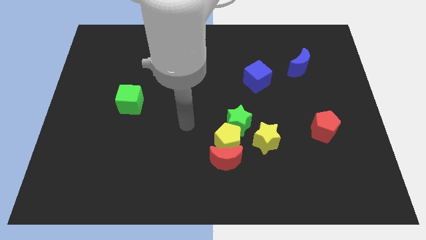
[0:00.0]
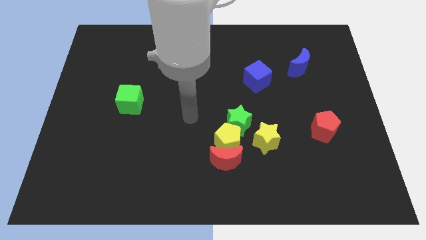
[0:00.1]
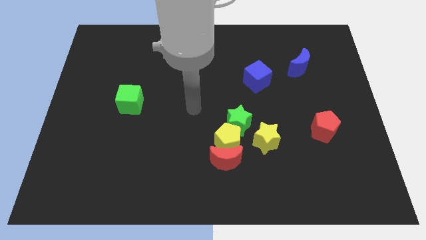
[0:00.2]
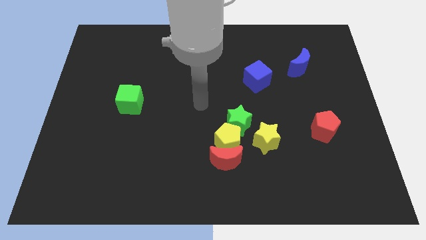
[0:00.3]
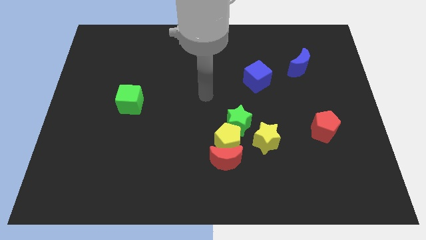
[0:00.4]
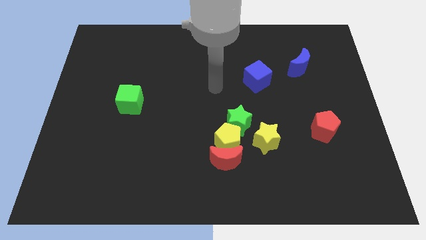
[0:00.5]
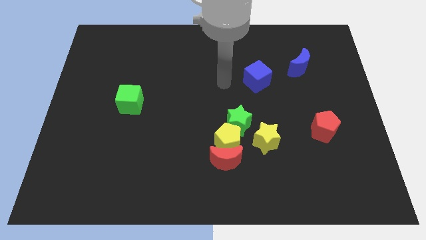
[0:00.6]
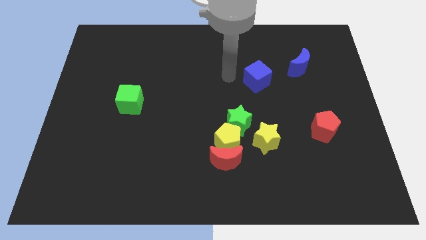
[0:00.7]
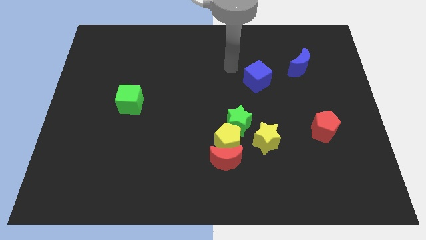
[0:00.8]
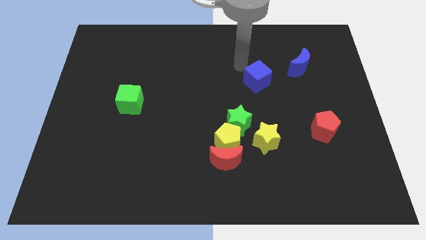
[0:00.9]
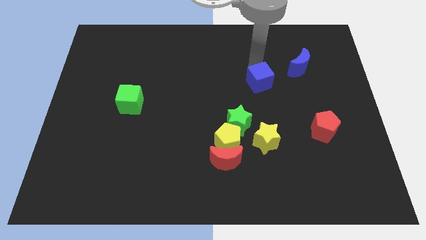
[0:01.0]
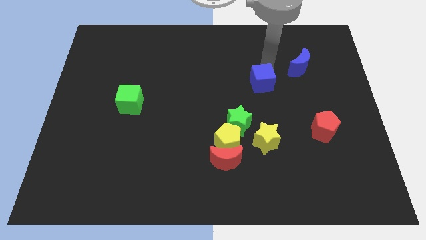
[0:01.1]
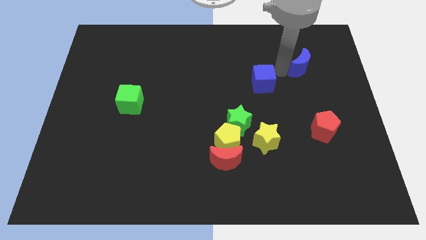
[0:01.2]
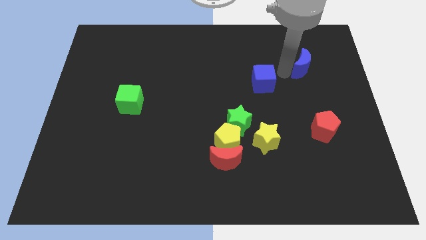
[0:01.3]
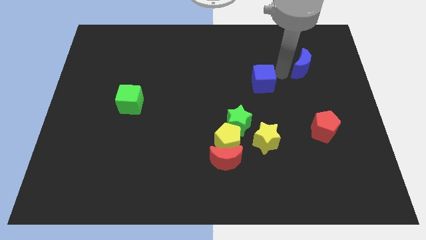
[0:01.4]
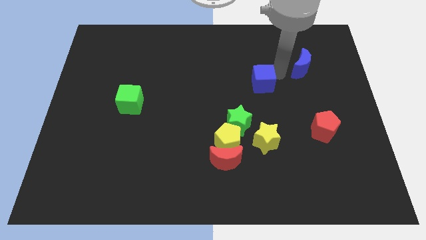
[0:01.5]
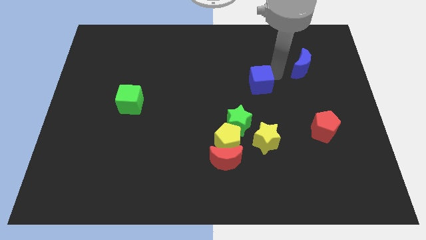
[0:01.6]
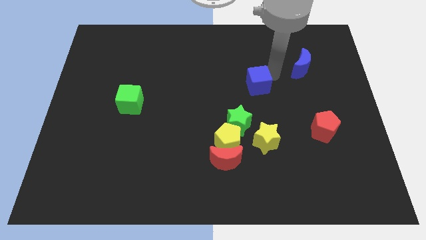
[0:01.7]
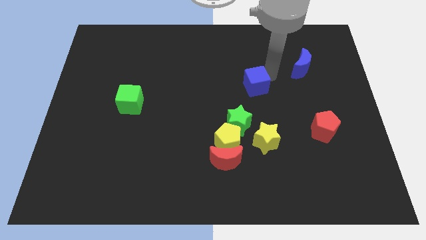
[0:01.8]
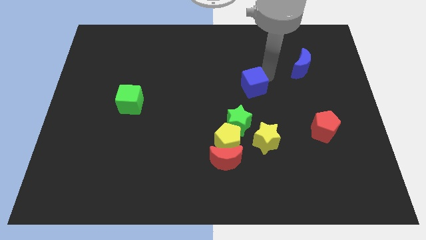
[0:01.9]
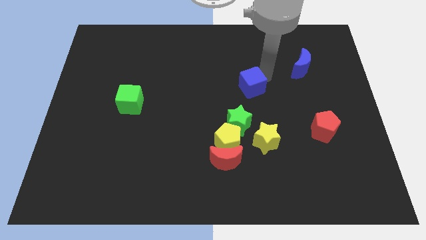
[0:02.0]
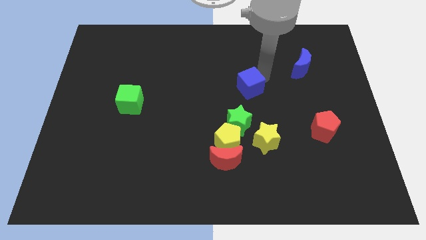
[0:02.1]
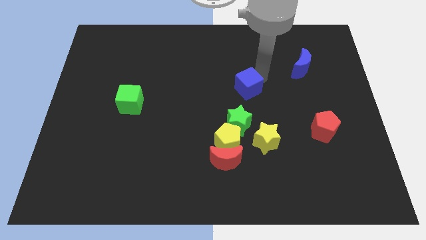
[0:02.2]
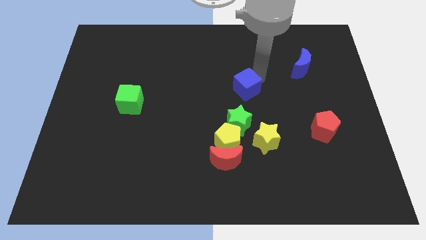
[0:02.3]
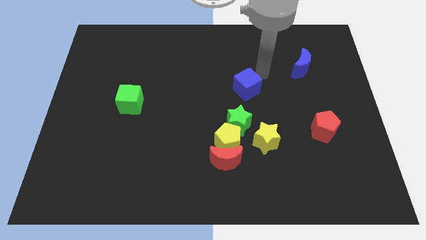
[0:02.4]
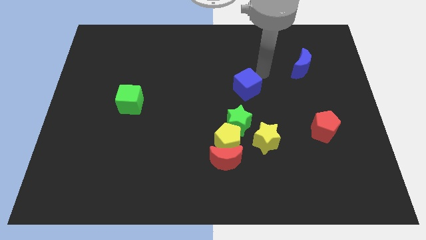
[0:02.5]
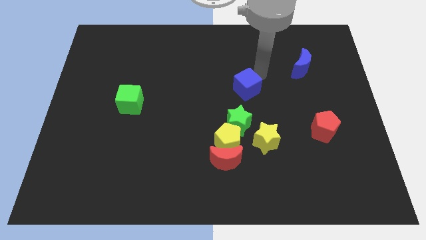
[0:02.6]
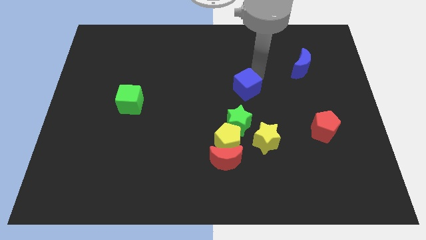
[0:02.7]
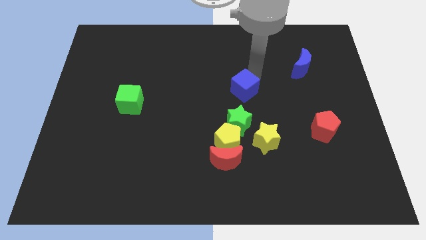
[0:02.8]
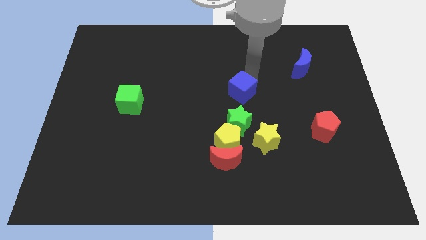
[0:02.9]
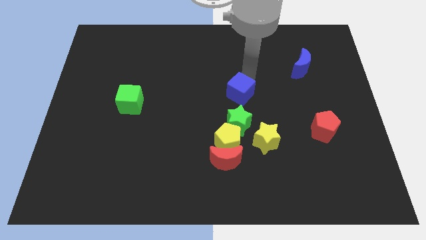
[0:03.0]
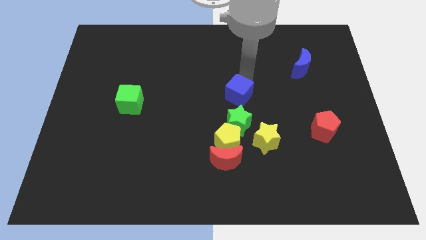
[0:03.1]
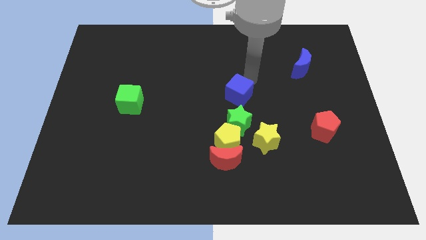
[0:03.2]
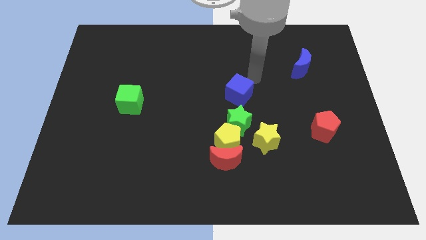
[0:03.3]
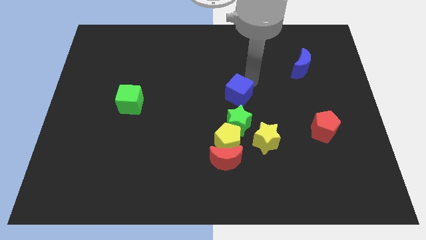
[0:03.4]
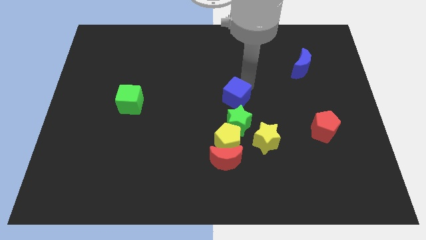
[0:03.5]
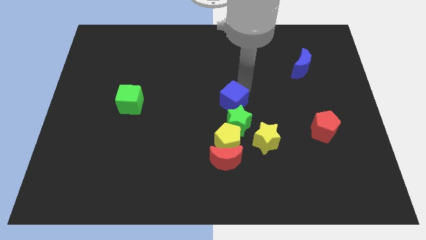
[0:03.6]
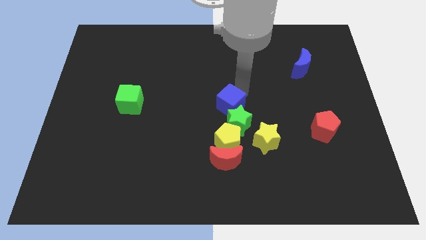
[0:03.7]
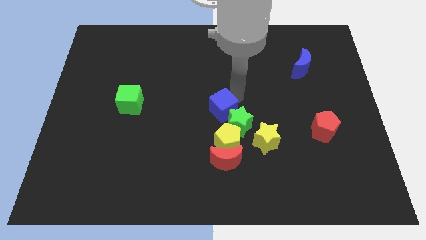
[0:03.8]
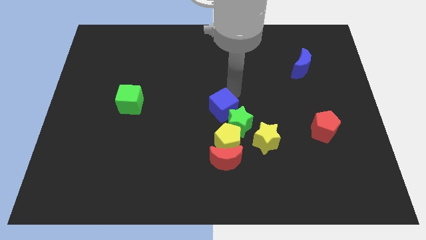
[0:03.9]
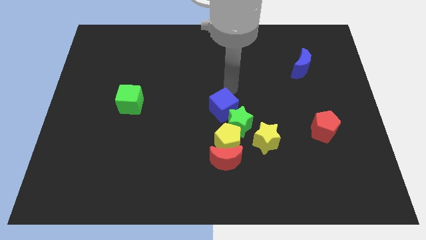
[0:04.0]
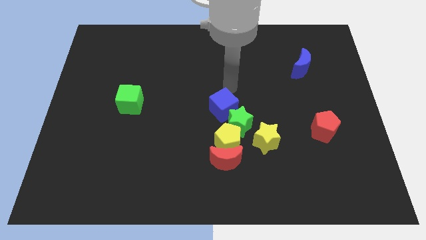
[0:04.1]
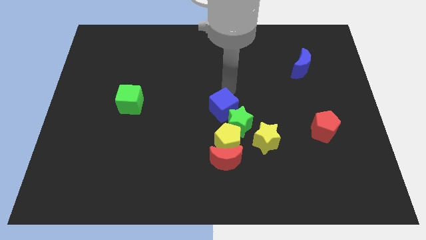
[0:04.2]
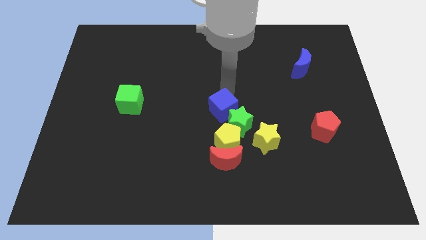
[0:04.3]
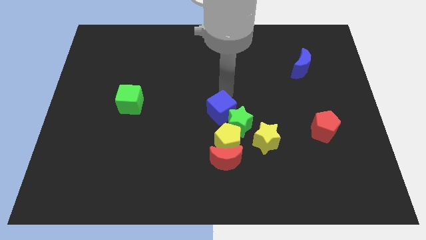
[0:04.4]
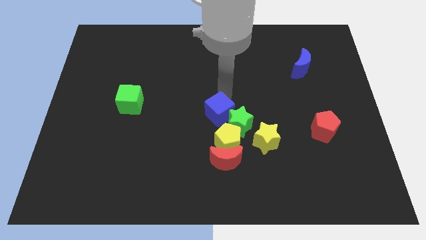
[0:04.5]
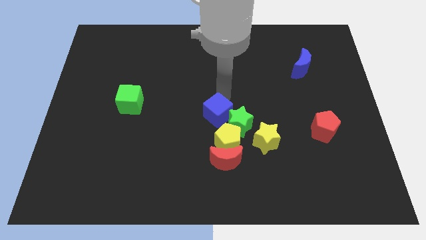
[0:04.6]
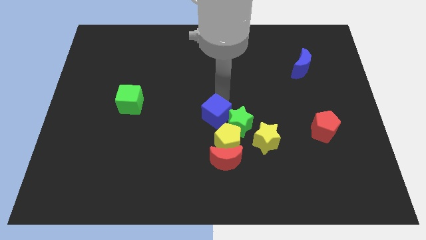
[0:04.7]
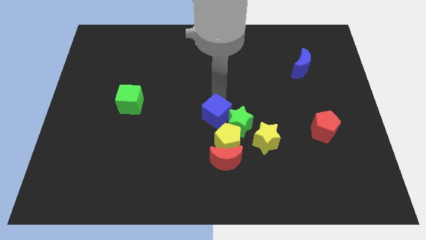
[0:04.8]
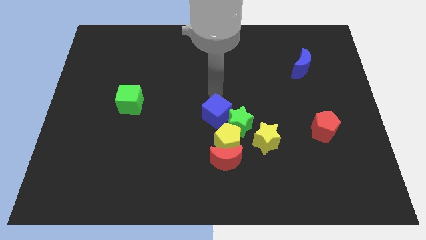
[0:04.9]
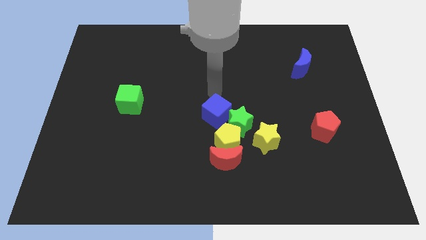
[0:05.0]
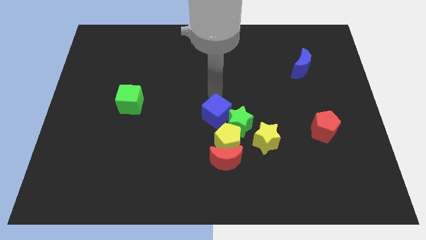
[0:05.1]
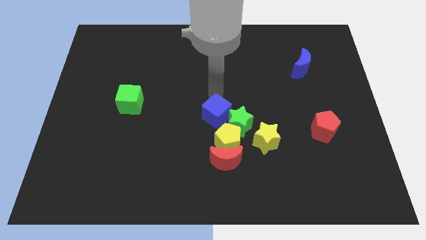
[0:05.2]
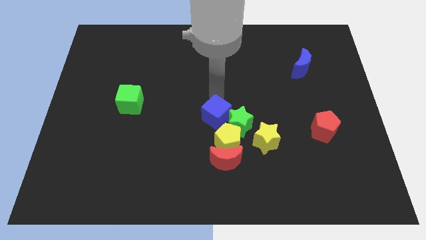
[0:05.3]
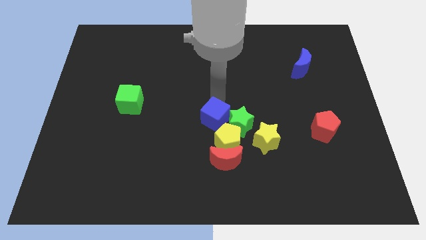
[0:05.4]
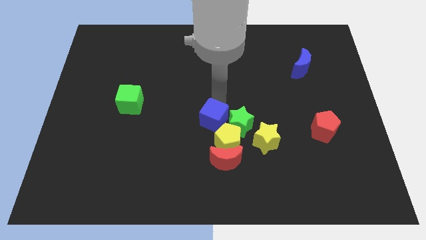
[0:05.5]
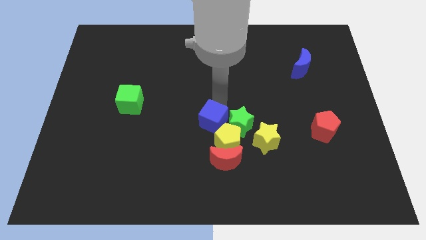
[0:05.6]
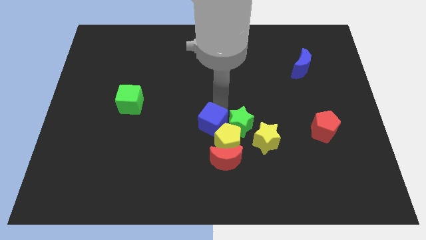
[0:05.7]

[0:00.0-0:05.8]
push the blue cube towards the yellow pentagon

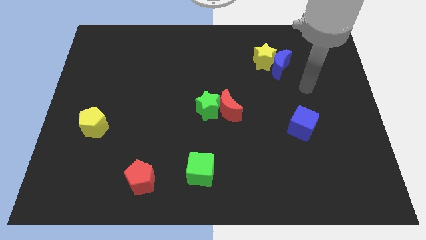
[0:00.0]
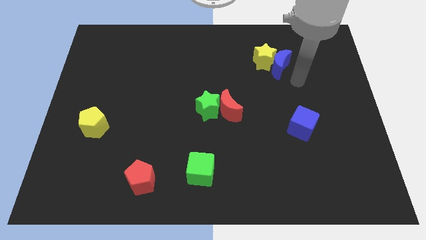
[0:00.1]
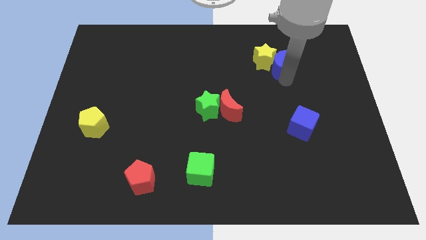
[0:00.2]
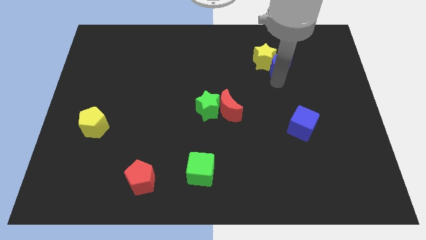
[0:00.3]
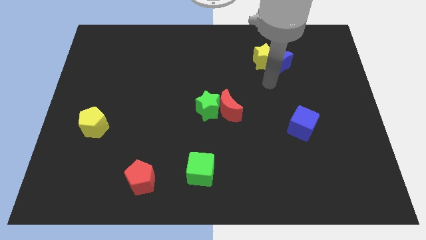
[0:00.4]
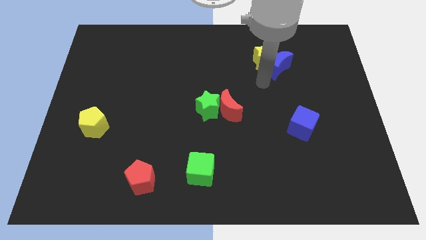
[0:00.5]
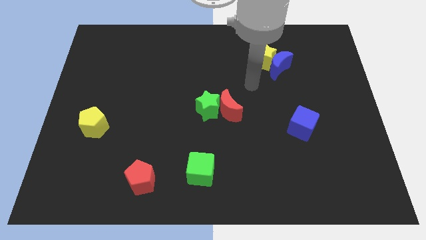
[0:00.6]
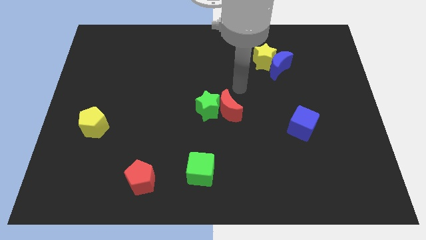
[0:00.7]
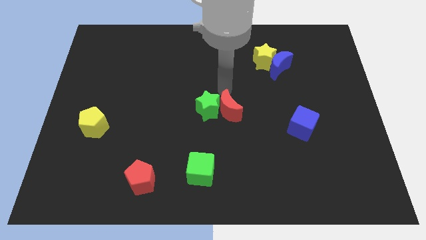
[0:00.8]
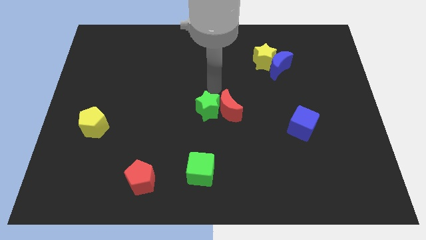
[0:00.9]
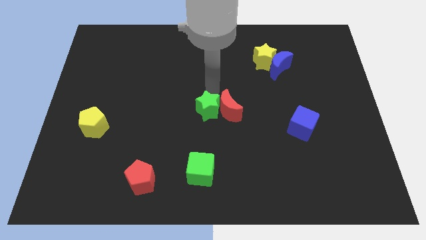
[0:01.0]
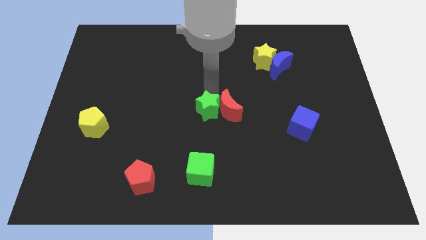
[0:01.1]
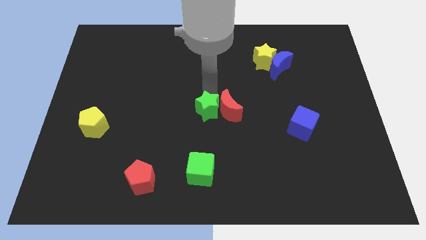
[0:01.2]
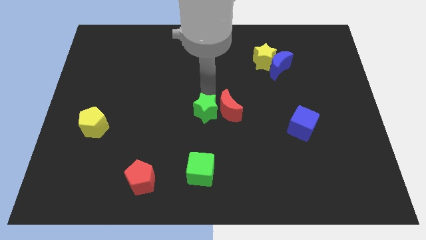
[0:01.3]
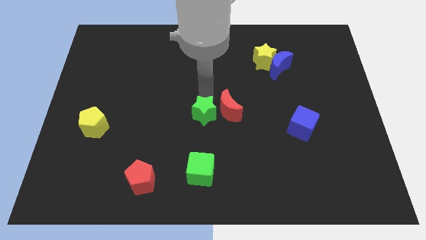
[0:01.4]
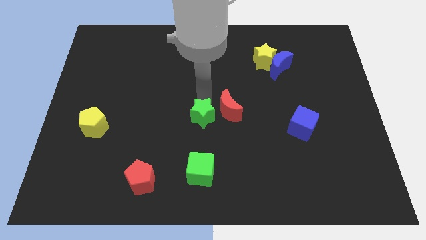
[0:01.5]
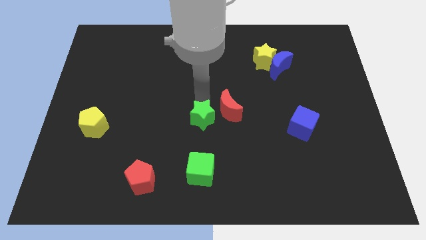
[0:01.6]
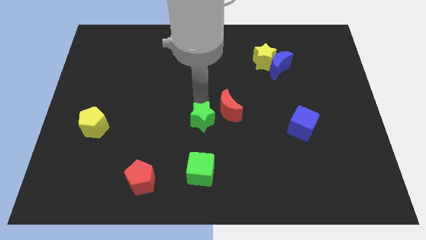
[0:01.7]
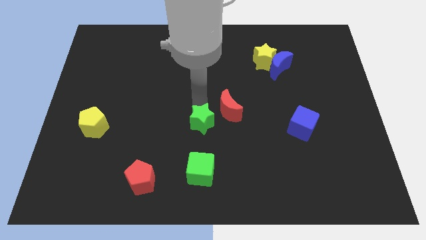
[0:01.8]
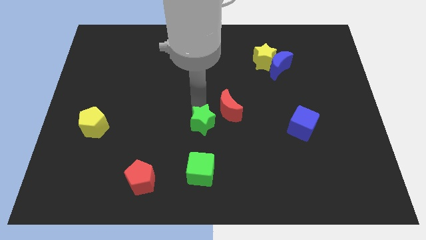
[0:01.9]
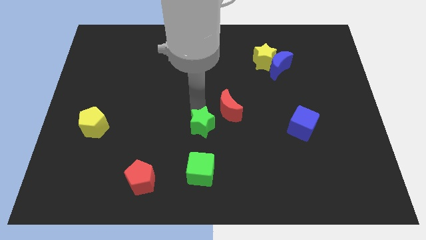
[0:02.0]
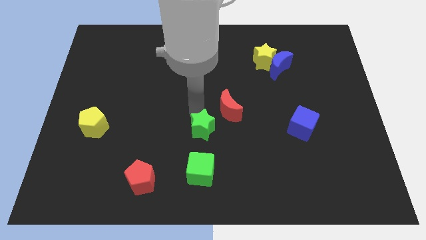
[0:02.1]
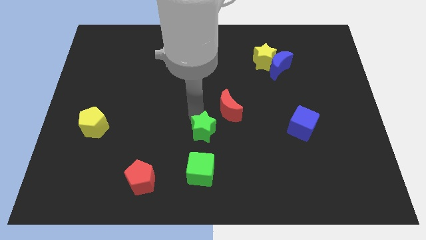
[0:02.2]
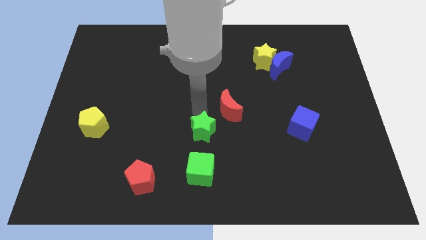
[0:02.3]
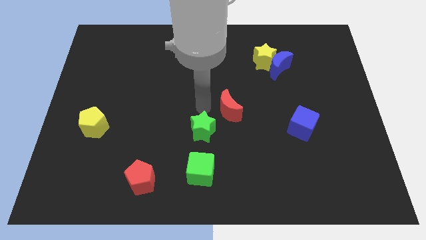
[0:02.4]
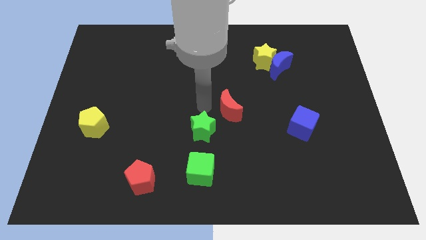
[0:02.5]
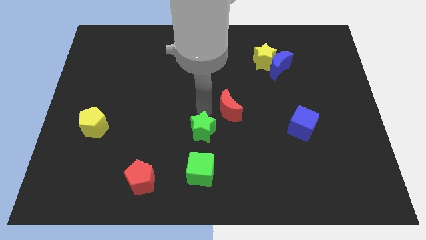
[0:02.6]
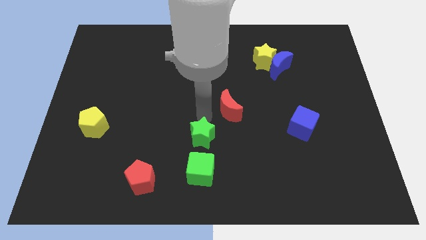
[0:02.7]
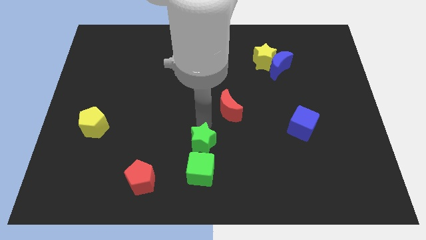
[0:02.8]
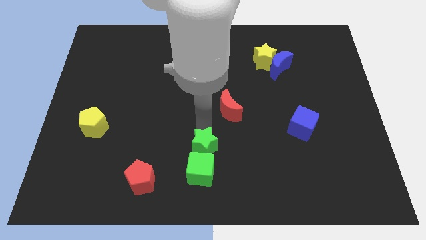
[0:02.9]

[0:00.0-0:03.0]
move the green star close to the green cube
